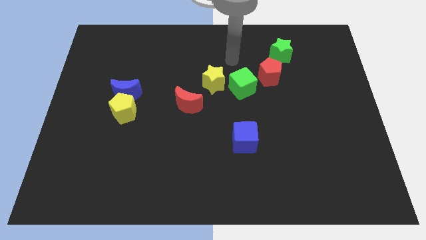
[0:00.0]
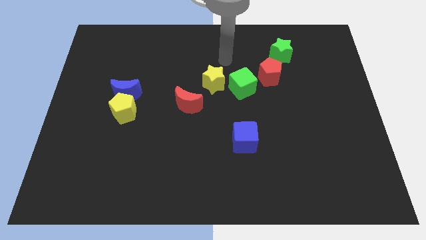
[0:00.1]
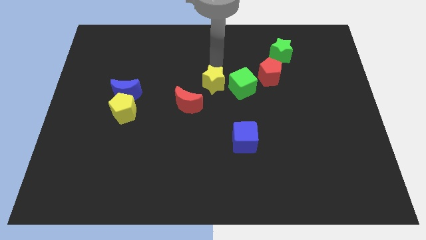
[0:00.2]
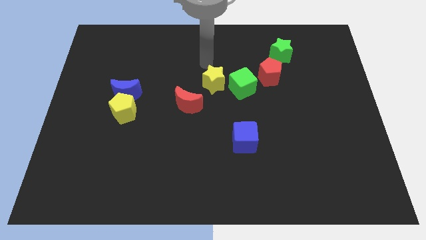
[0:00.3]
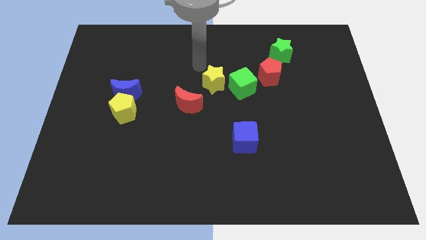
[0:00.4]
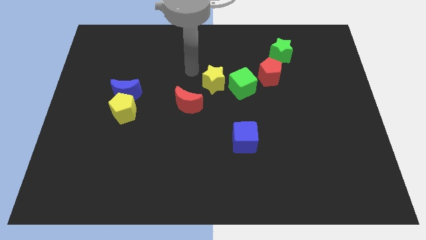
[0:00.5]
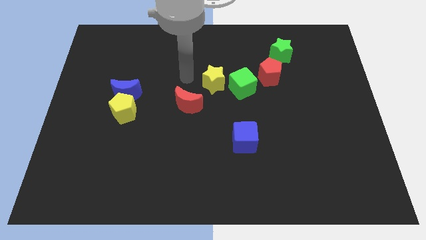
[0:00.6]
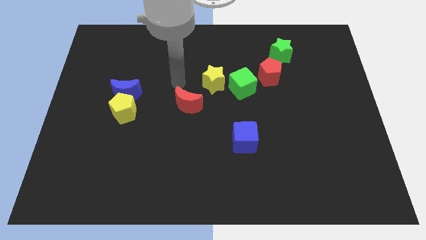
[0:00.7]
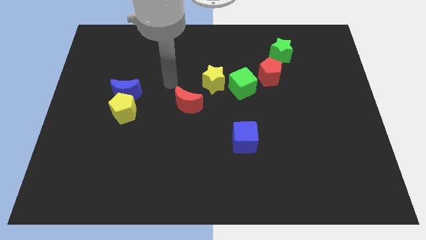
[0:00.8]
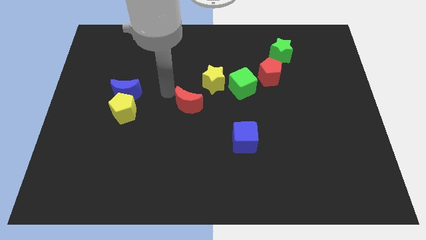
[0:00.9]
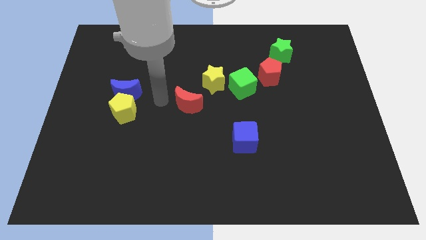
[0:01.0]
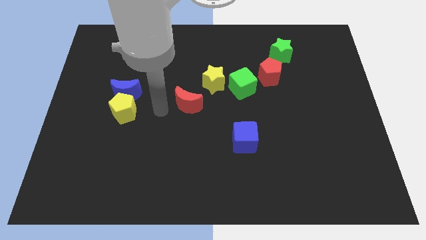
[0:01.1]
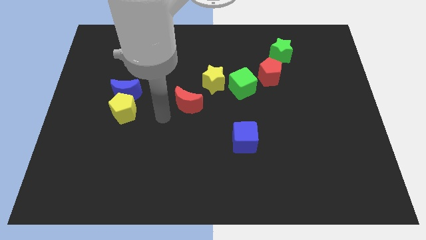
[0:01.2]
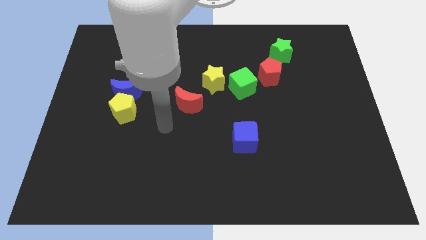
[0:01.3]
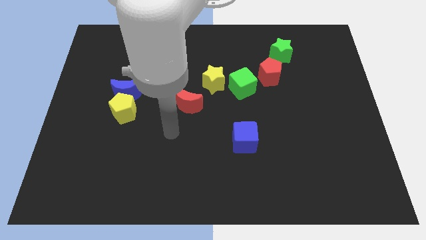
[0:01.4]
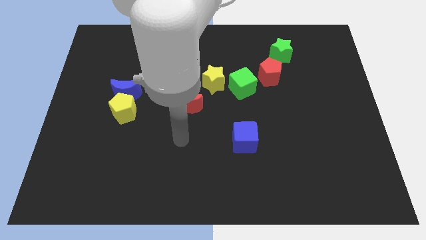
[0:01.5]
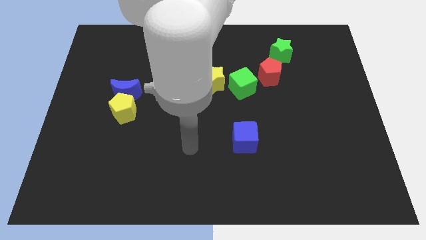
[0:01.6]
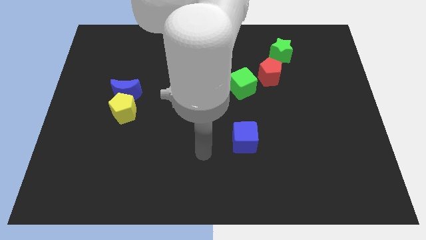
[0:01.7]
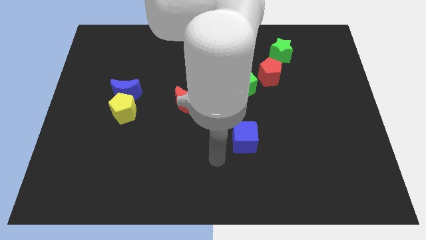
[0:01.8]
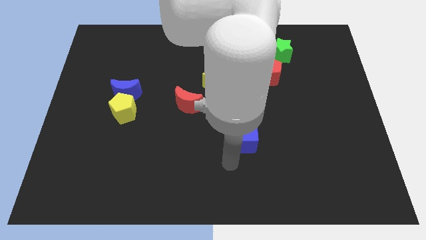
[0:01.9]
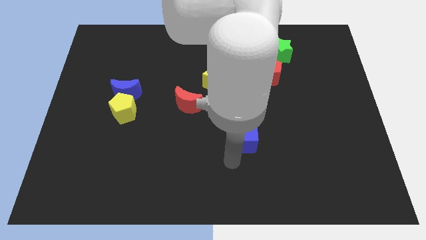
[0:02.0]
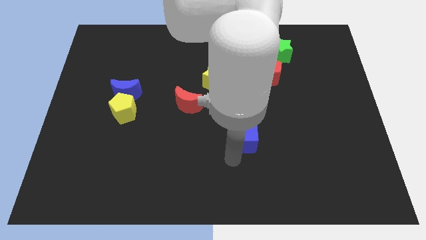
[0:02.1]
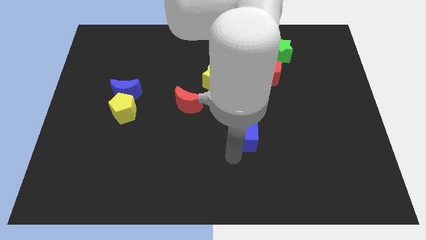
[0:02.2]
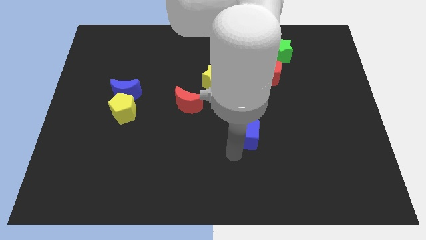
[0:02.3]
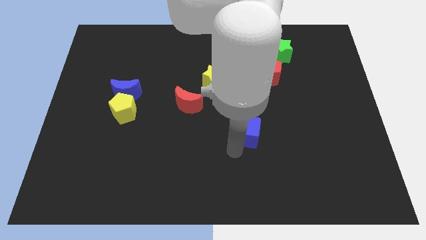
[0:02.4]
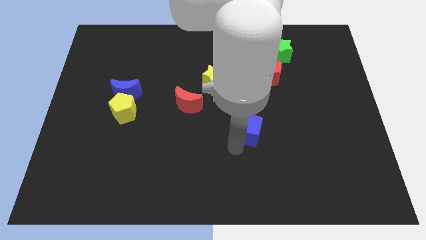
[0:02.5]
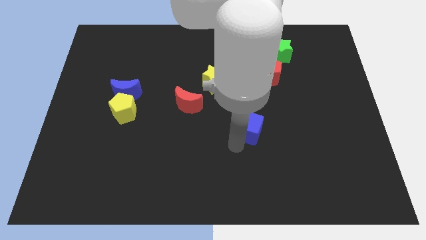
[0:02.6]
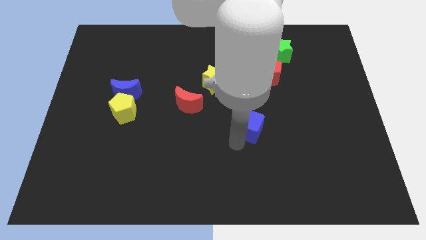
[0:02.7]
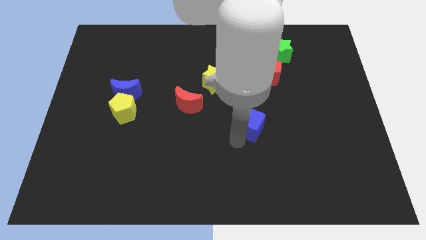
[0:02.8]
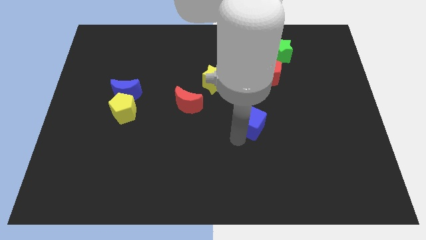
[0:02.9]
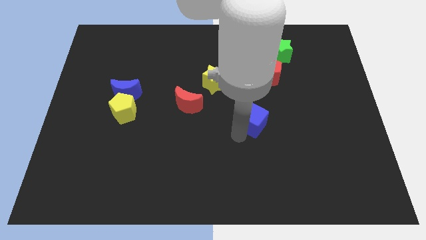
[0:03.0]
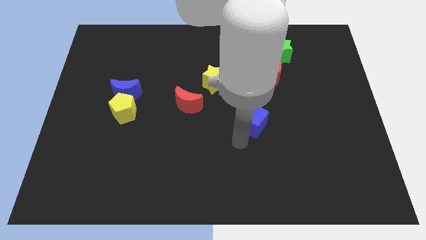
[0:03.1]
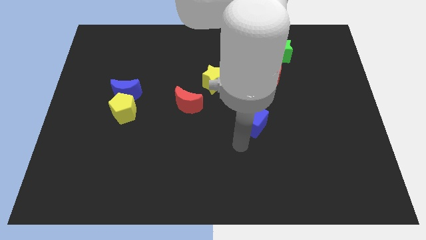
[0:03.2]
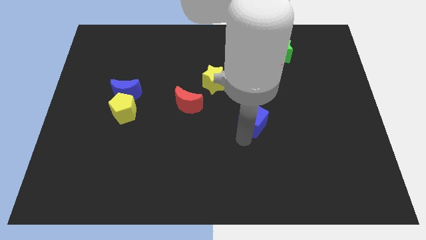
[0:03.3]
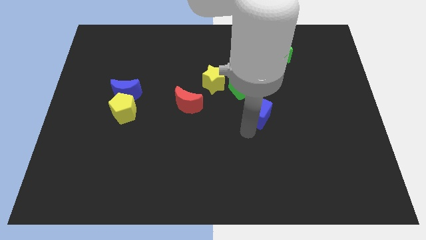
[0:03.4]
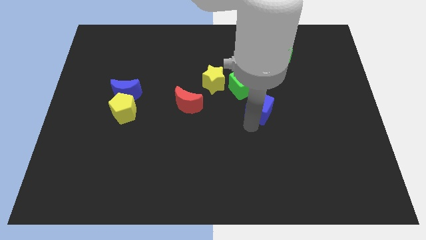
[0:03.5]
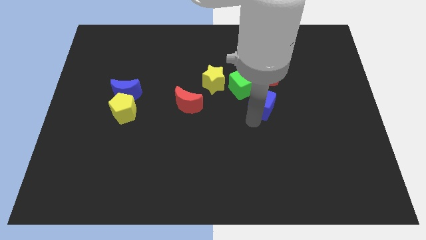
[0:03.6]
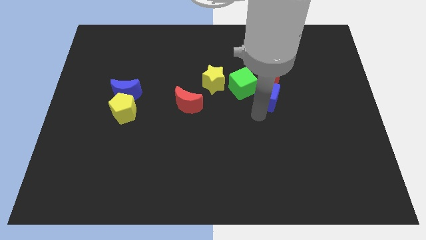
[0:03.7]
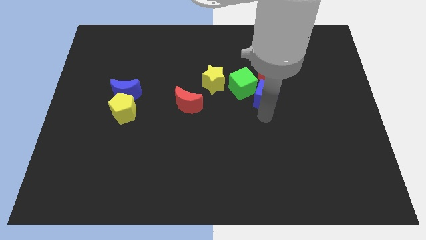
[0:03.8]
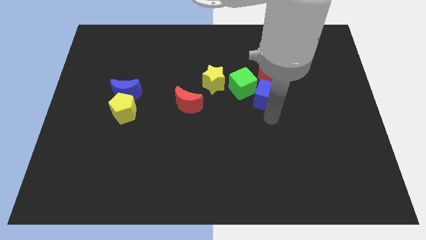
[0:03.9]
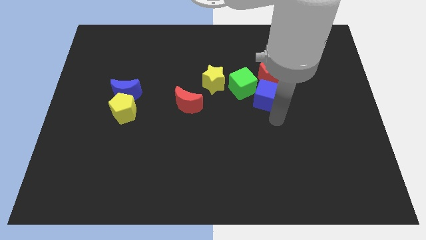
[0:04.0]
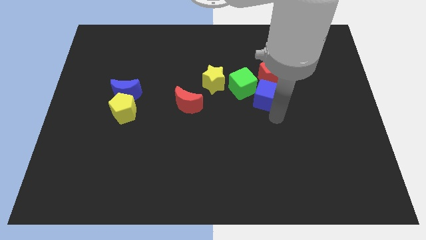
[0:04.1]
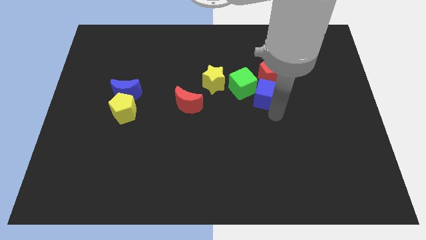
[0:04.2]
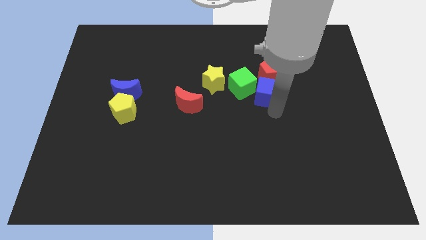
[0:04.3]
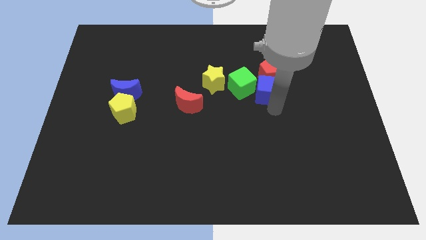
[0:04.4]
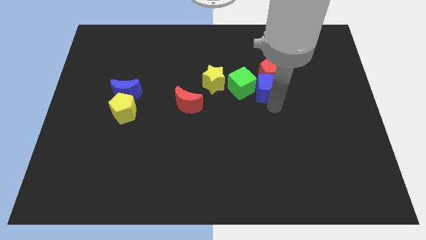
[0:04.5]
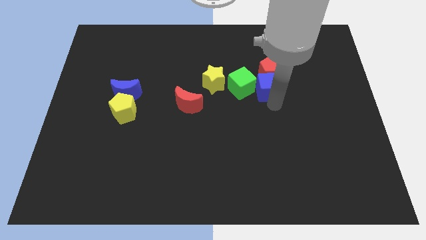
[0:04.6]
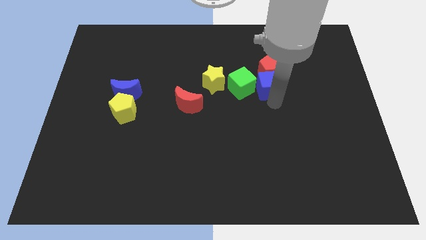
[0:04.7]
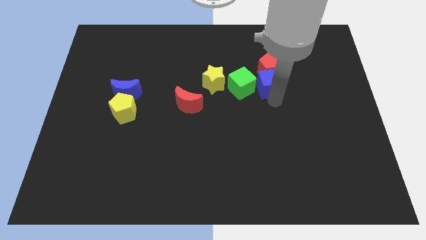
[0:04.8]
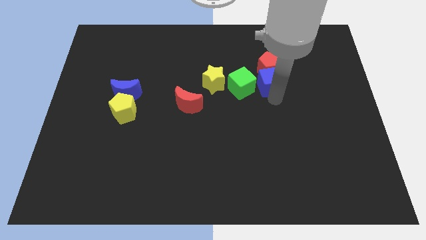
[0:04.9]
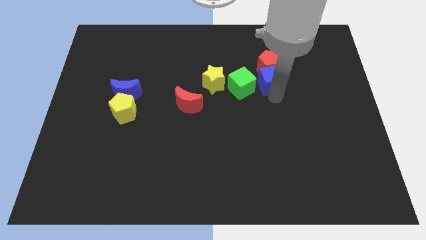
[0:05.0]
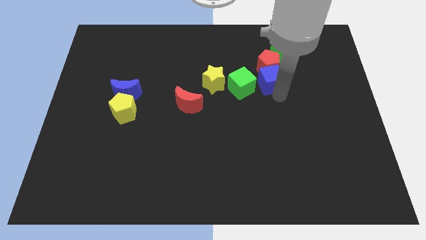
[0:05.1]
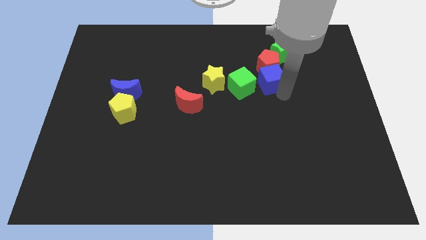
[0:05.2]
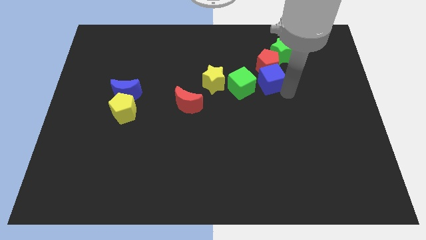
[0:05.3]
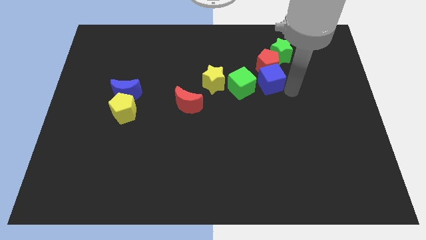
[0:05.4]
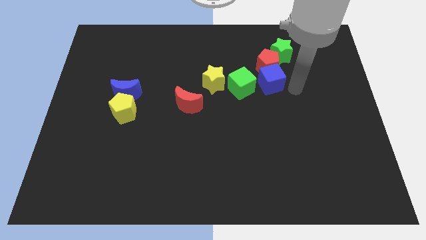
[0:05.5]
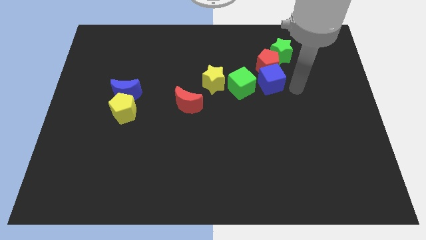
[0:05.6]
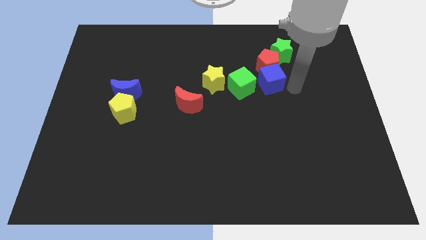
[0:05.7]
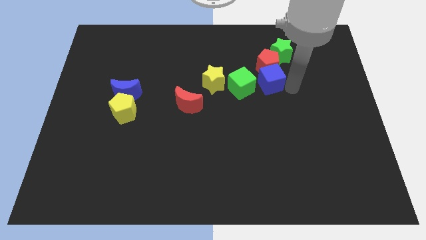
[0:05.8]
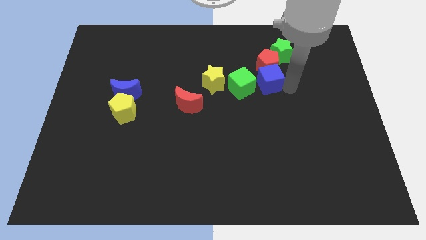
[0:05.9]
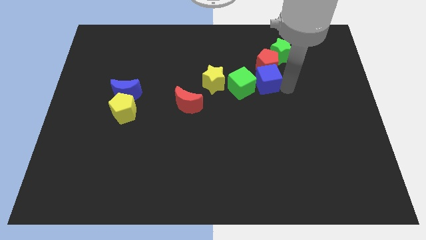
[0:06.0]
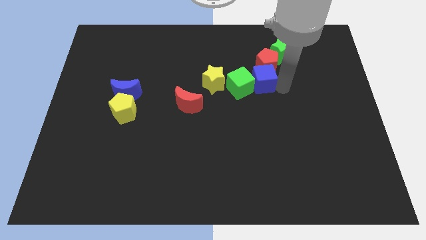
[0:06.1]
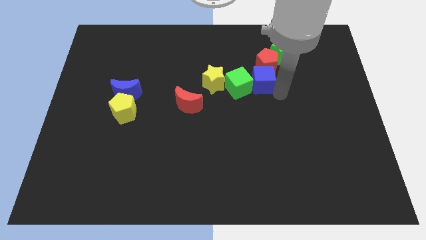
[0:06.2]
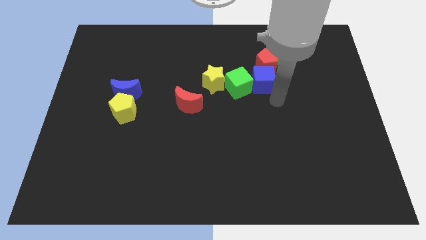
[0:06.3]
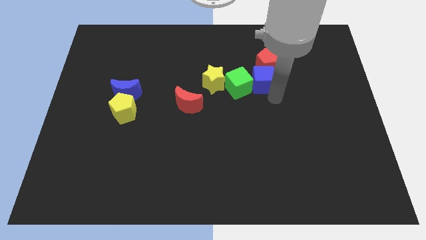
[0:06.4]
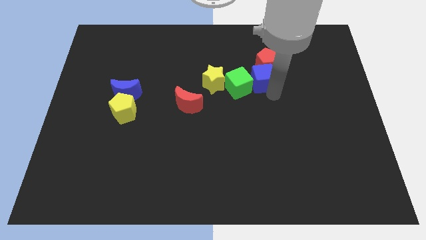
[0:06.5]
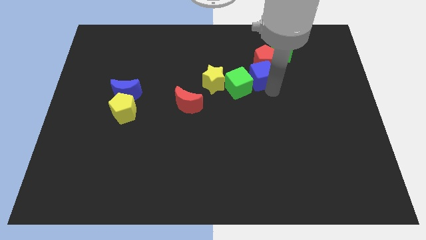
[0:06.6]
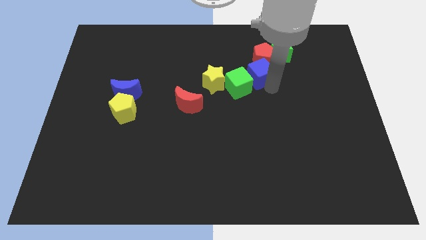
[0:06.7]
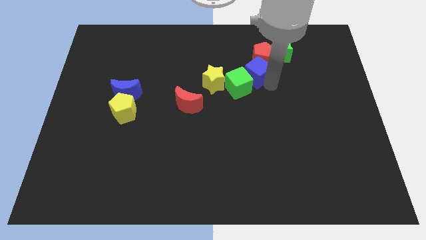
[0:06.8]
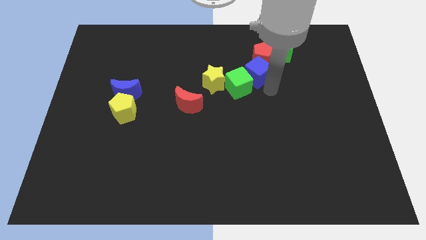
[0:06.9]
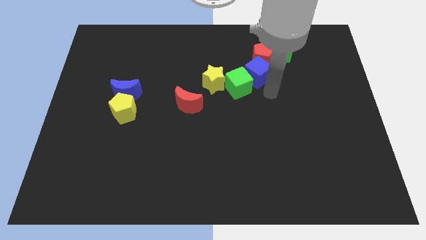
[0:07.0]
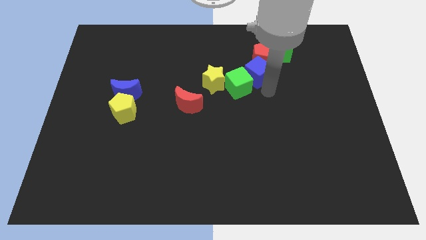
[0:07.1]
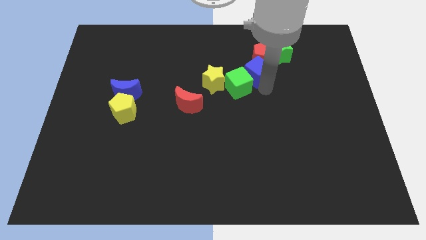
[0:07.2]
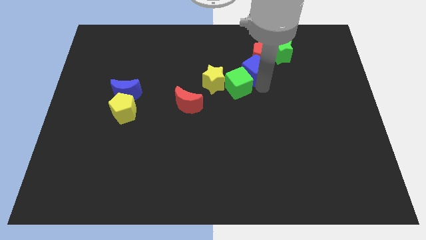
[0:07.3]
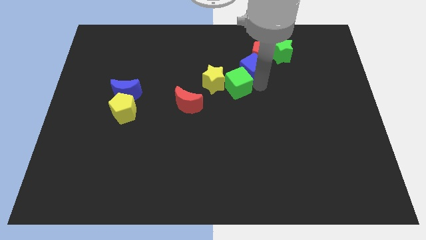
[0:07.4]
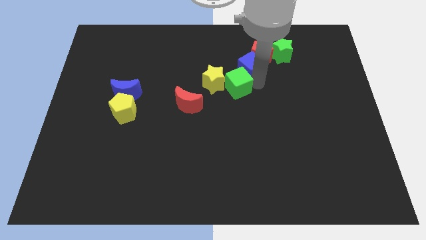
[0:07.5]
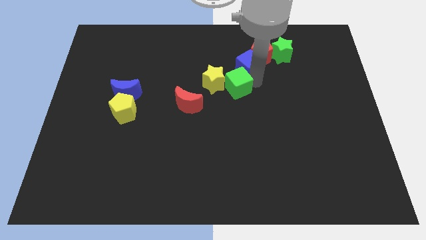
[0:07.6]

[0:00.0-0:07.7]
move the blue cube just left of the green star

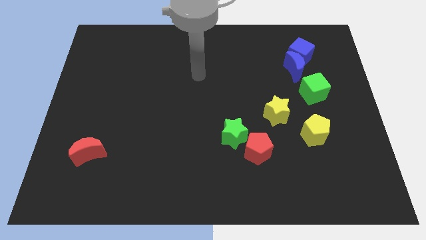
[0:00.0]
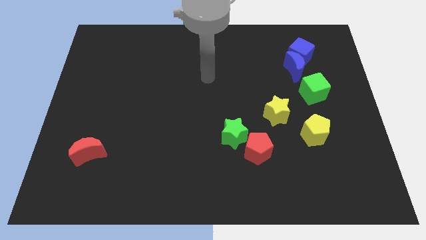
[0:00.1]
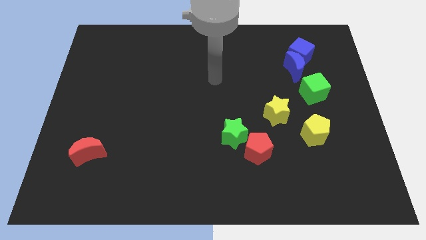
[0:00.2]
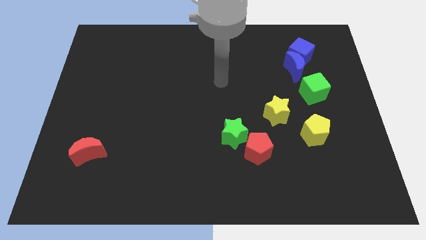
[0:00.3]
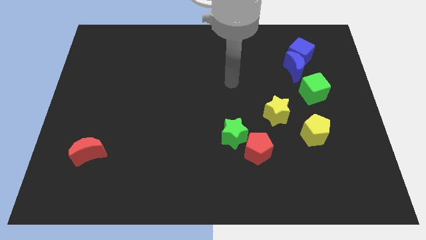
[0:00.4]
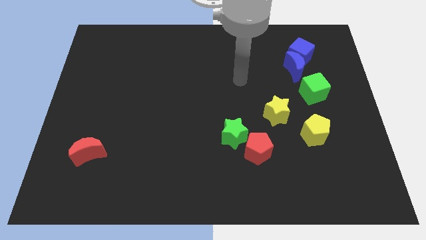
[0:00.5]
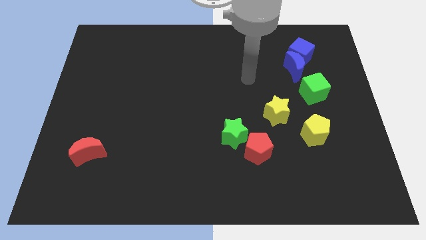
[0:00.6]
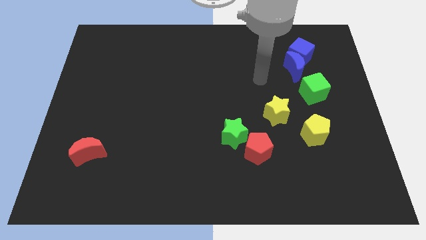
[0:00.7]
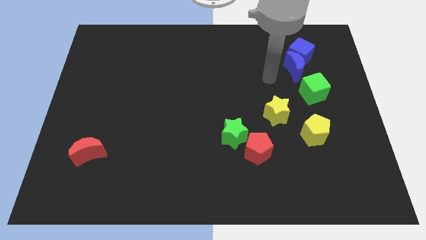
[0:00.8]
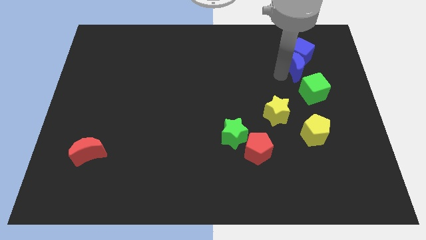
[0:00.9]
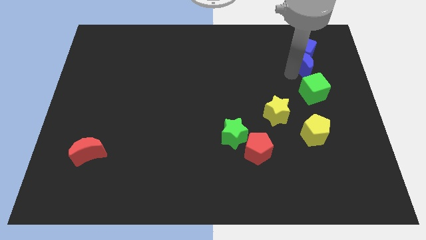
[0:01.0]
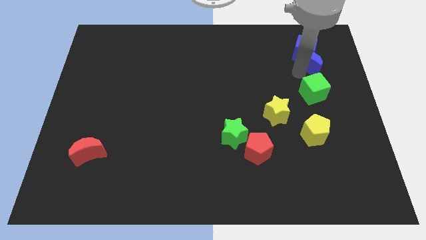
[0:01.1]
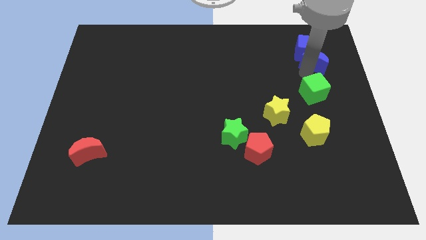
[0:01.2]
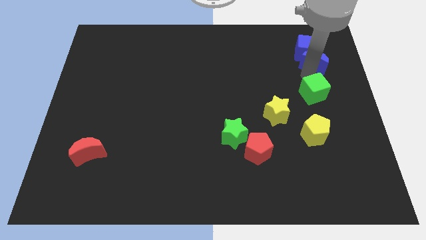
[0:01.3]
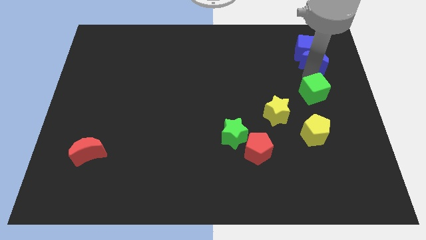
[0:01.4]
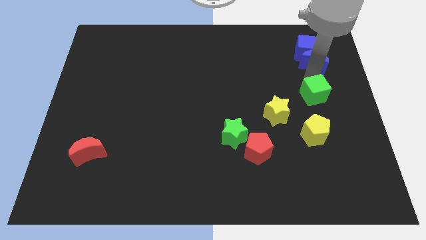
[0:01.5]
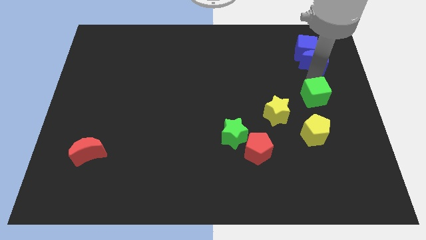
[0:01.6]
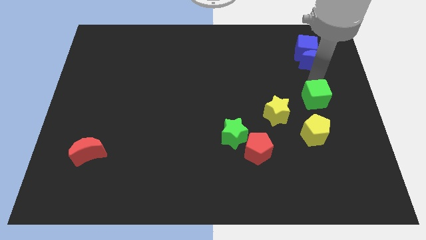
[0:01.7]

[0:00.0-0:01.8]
slide the green cube to the right of the yellow star
